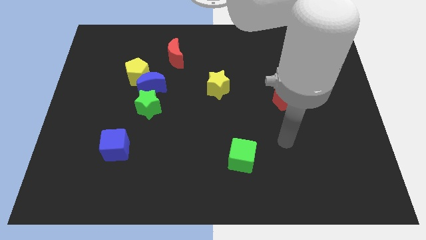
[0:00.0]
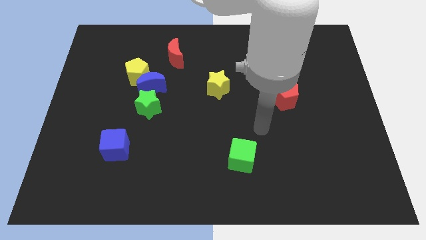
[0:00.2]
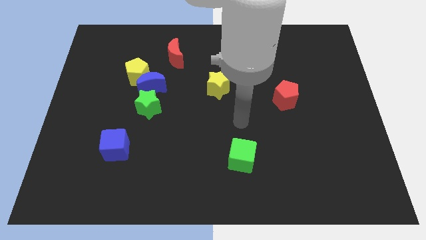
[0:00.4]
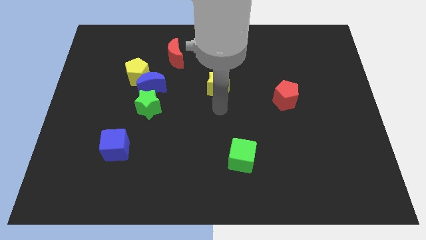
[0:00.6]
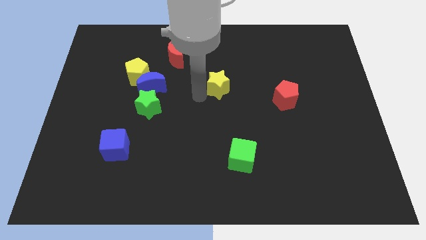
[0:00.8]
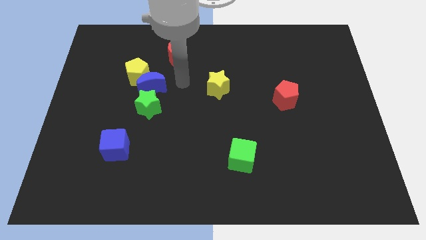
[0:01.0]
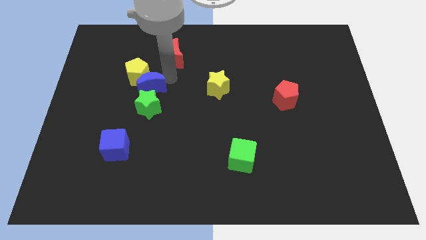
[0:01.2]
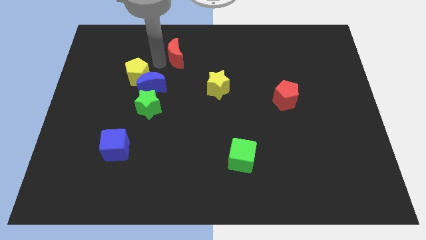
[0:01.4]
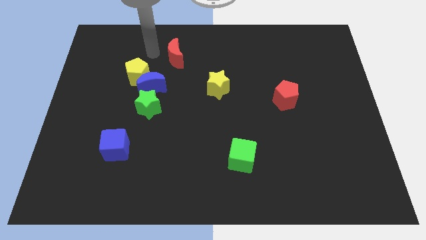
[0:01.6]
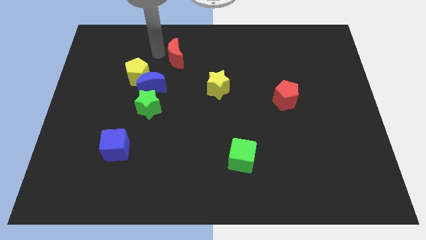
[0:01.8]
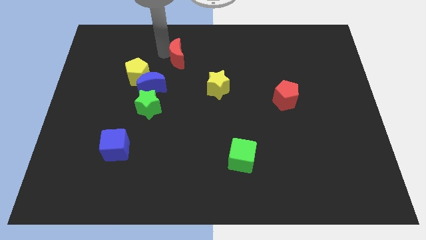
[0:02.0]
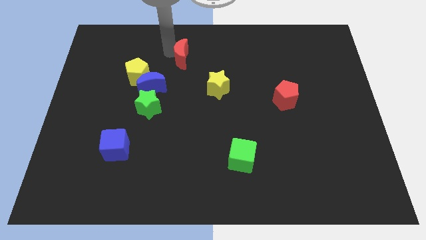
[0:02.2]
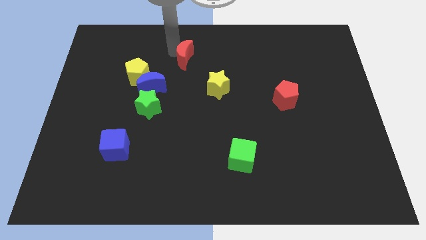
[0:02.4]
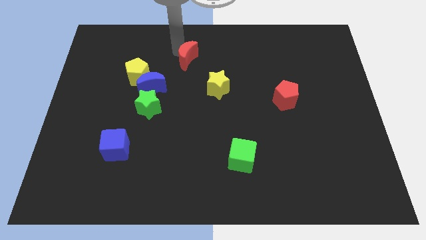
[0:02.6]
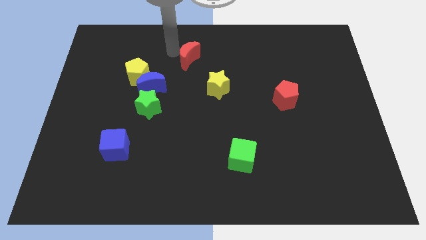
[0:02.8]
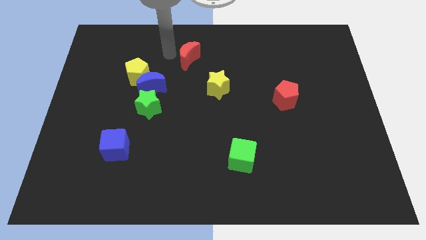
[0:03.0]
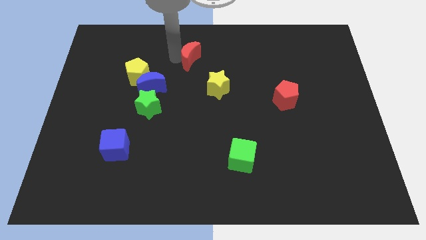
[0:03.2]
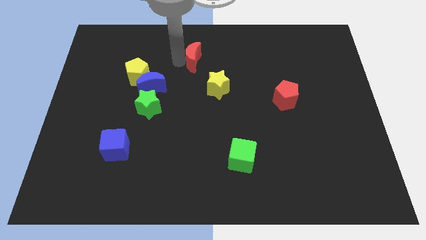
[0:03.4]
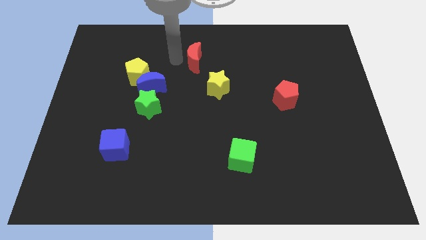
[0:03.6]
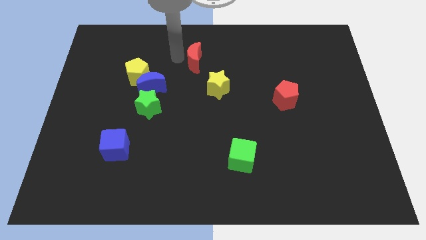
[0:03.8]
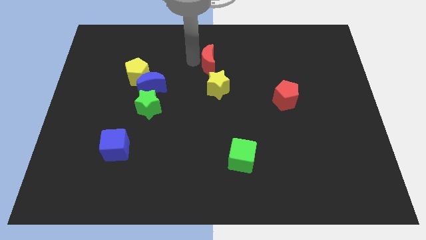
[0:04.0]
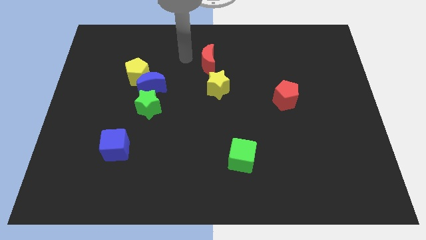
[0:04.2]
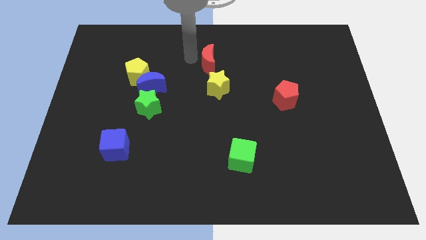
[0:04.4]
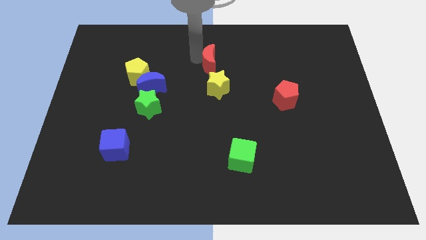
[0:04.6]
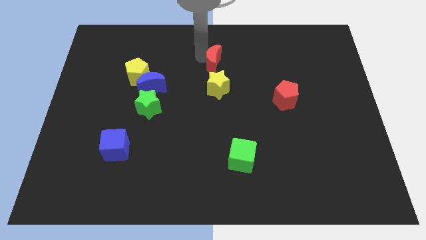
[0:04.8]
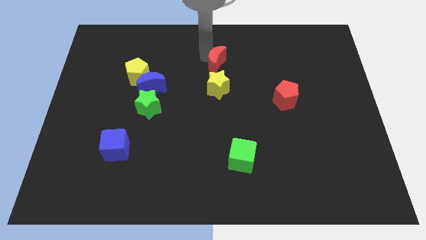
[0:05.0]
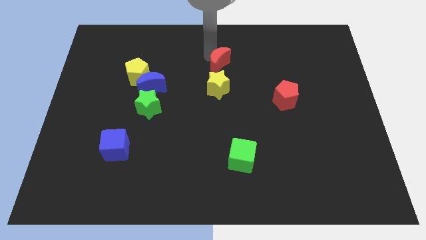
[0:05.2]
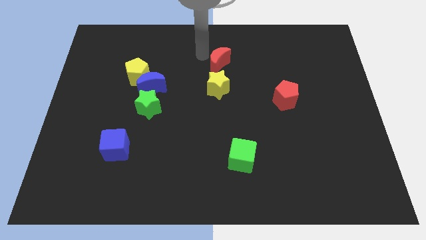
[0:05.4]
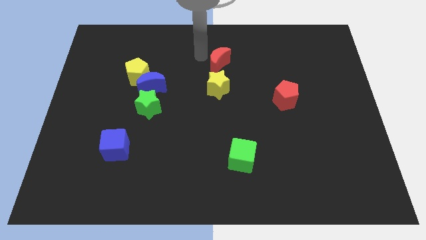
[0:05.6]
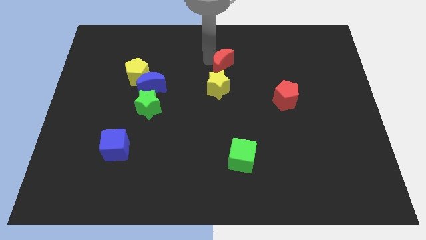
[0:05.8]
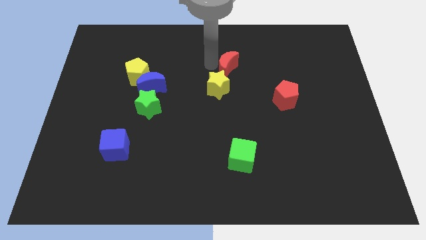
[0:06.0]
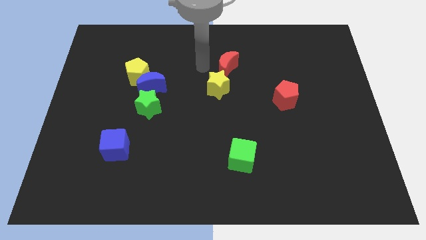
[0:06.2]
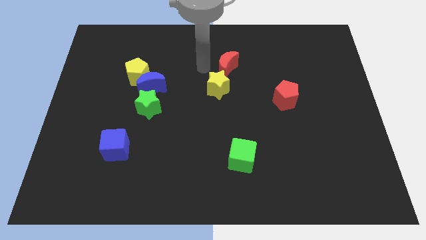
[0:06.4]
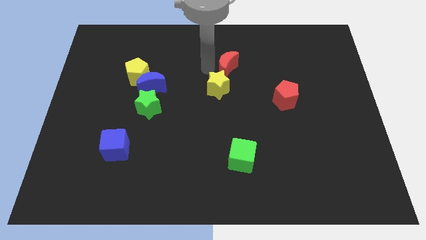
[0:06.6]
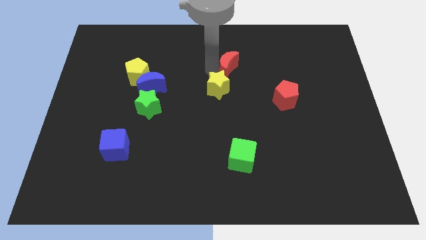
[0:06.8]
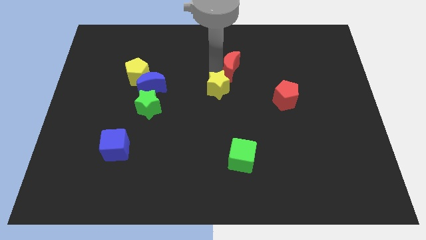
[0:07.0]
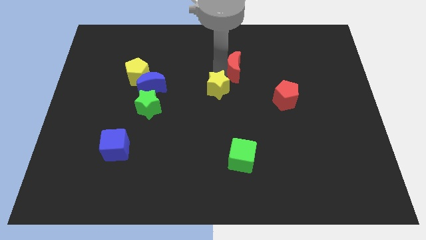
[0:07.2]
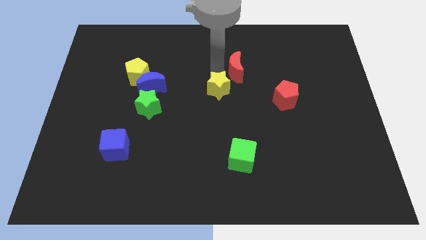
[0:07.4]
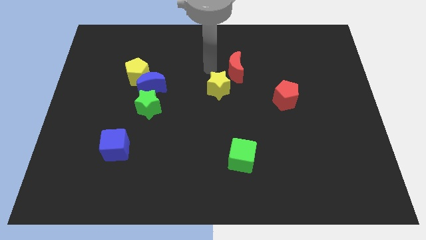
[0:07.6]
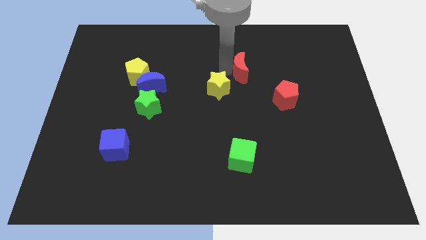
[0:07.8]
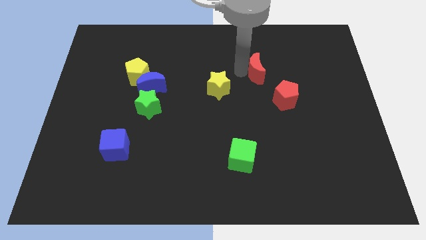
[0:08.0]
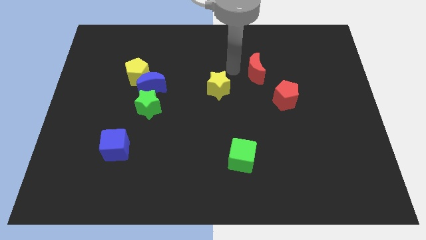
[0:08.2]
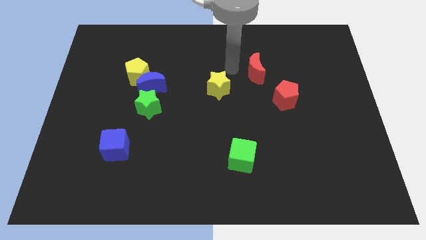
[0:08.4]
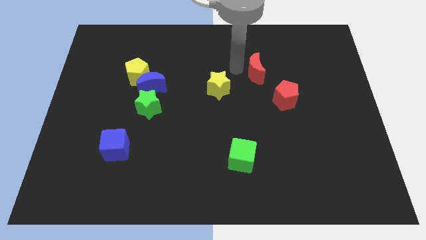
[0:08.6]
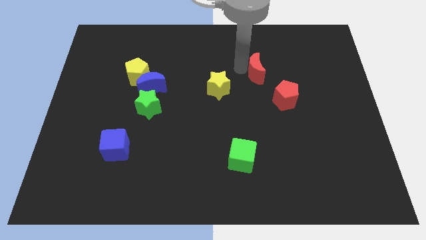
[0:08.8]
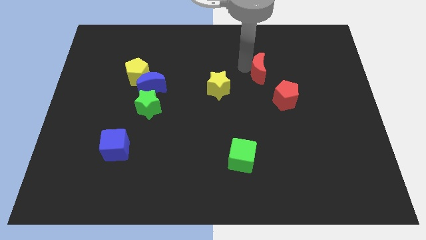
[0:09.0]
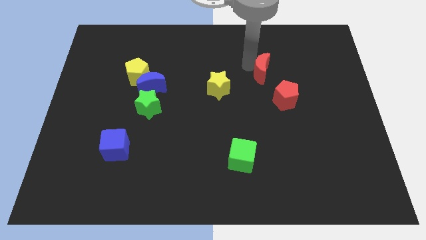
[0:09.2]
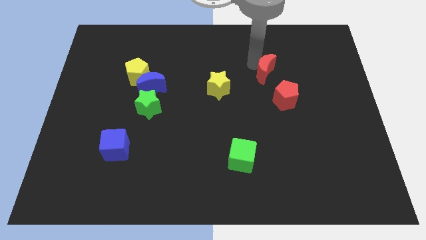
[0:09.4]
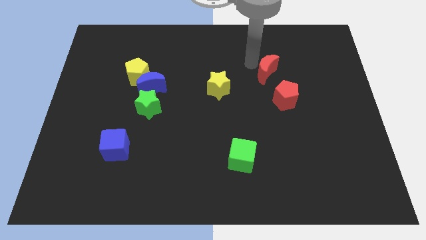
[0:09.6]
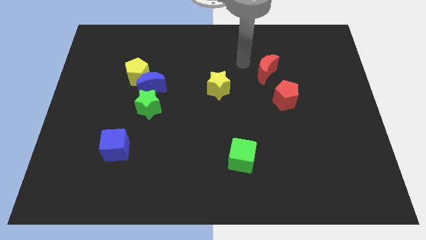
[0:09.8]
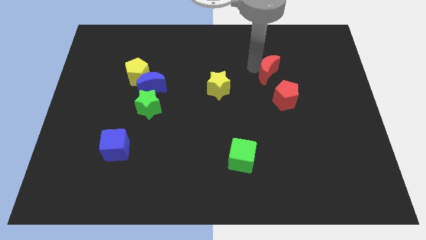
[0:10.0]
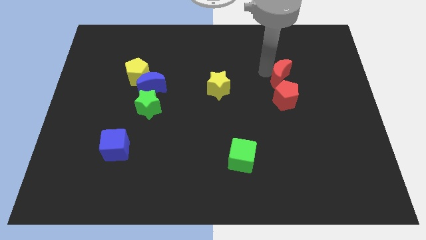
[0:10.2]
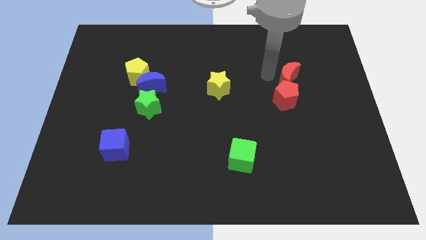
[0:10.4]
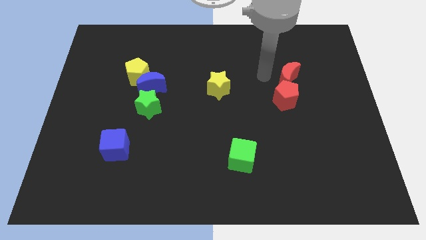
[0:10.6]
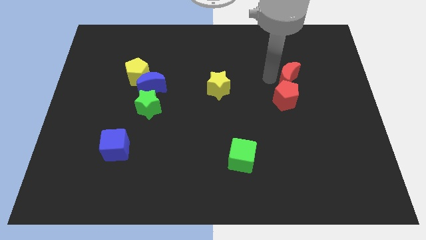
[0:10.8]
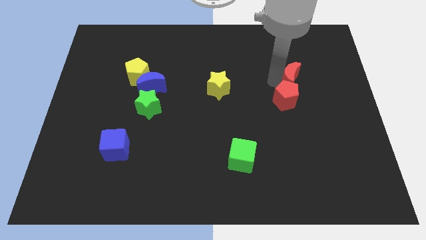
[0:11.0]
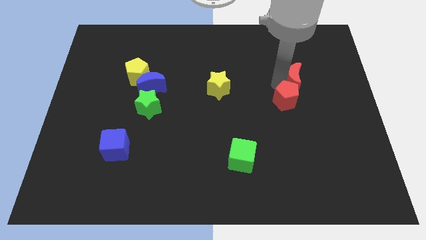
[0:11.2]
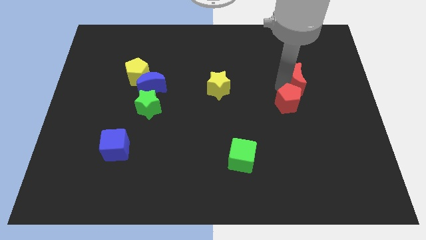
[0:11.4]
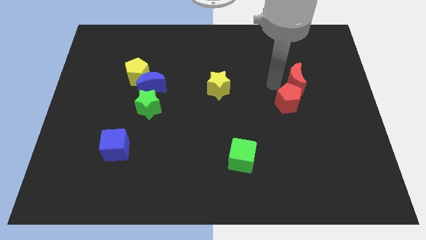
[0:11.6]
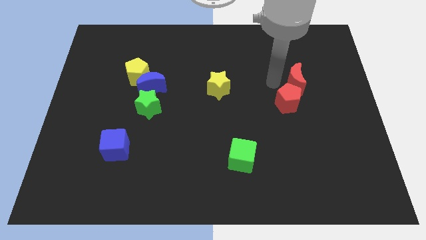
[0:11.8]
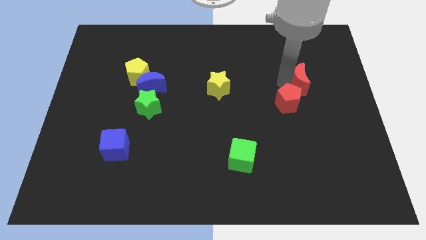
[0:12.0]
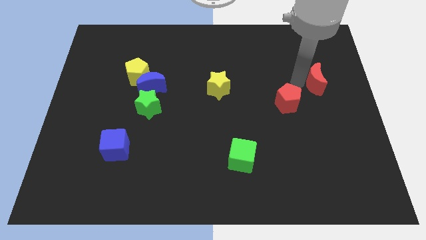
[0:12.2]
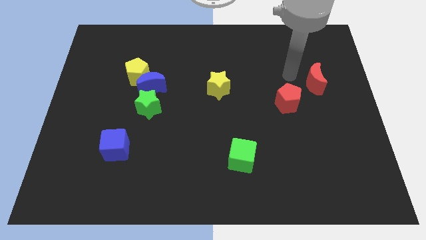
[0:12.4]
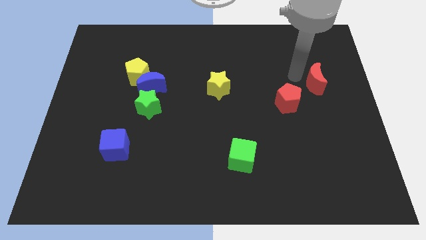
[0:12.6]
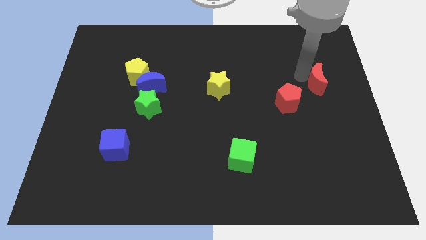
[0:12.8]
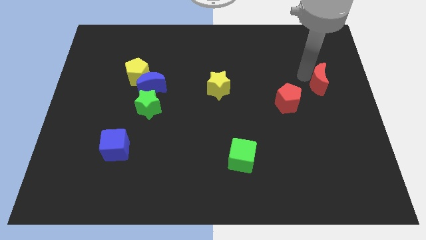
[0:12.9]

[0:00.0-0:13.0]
push the red moon to the right side of the board
